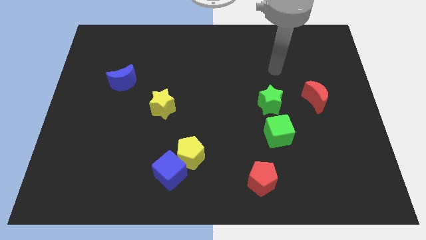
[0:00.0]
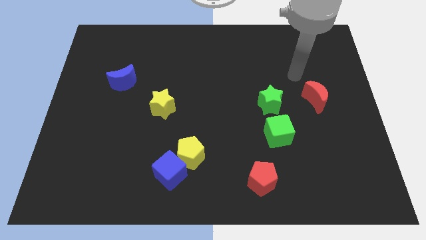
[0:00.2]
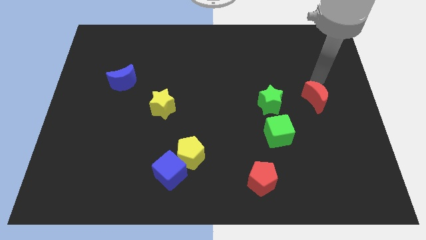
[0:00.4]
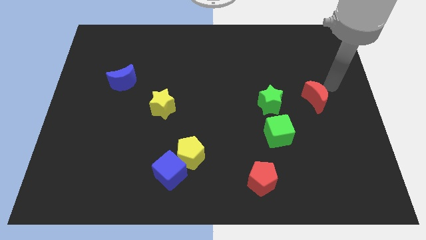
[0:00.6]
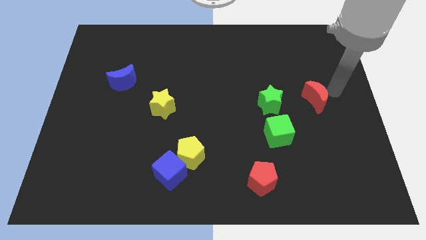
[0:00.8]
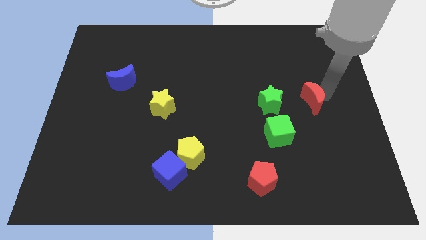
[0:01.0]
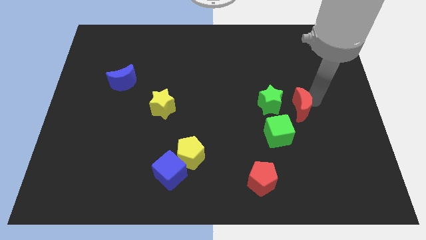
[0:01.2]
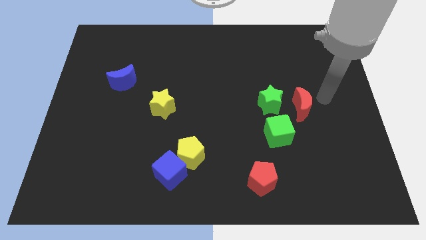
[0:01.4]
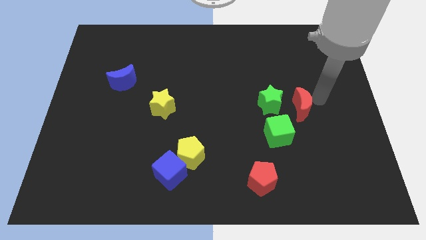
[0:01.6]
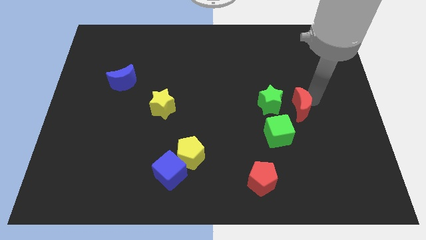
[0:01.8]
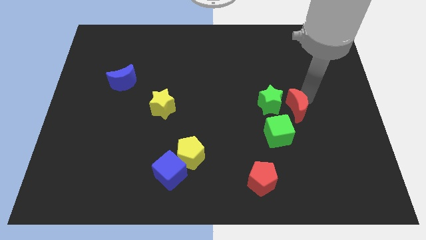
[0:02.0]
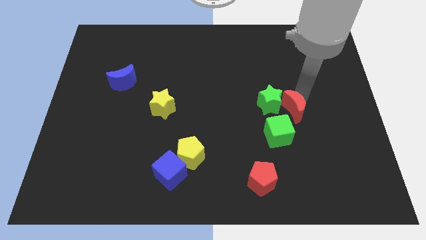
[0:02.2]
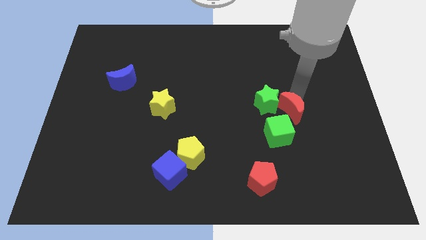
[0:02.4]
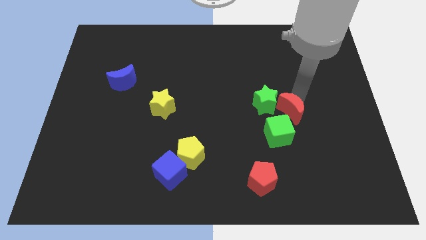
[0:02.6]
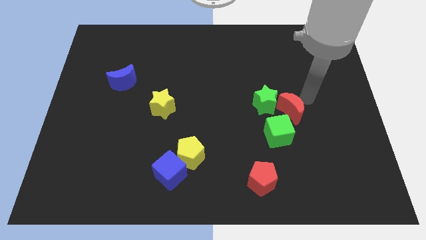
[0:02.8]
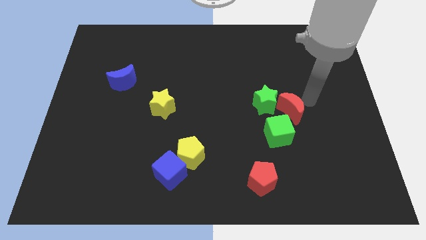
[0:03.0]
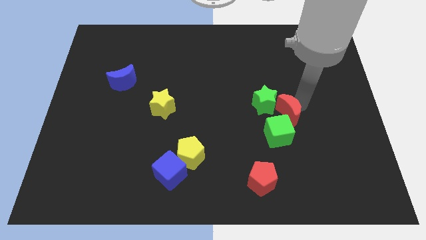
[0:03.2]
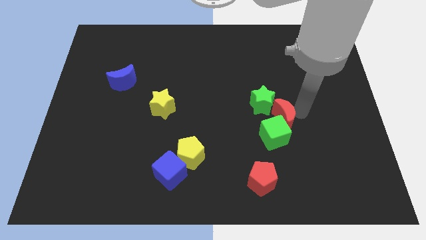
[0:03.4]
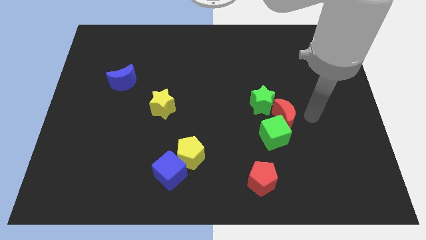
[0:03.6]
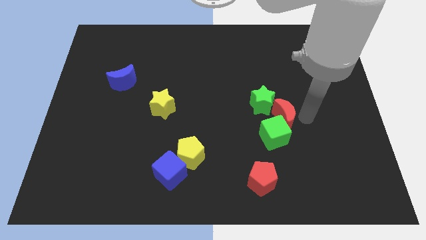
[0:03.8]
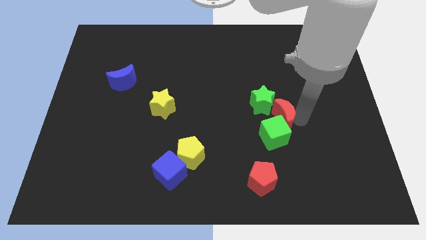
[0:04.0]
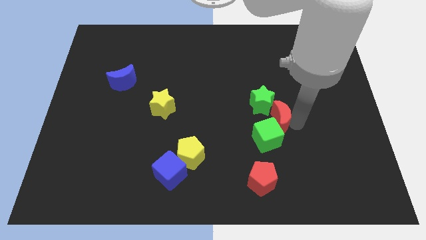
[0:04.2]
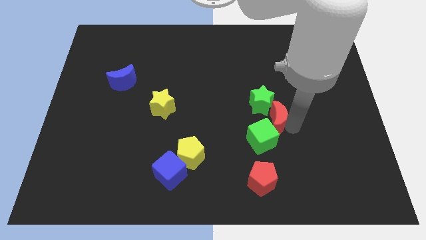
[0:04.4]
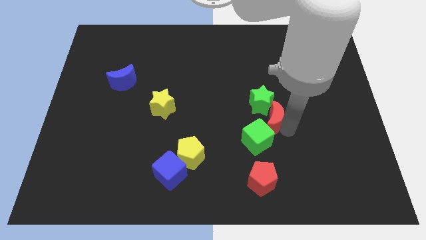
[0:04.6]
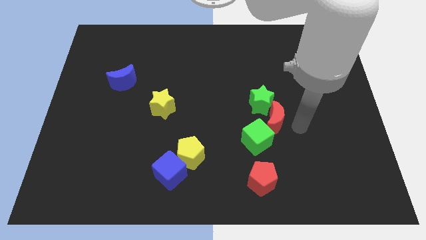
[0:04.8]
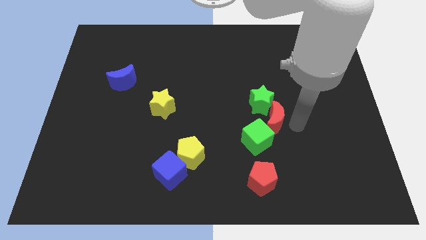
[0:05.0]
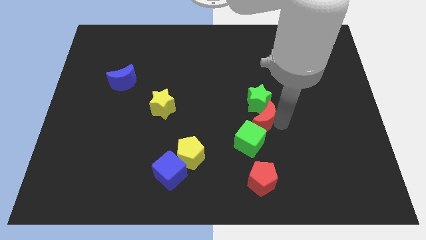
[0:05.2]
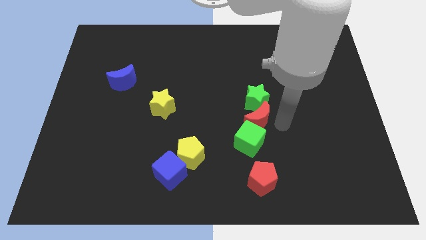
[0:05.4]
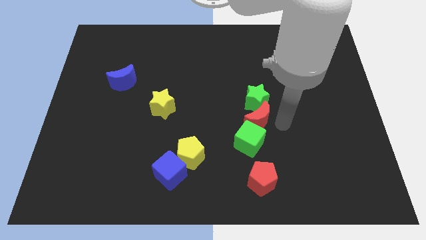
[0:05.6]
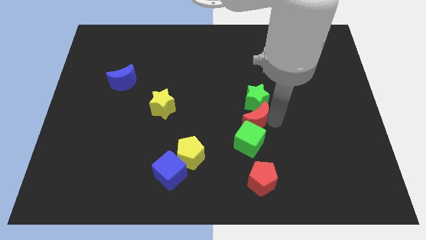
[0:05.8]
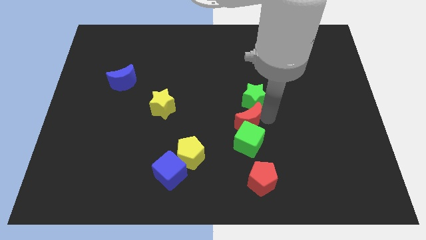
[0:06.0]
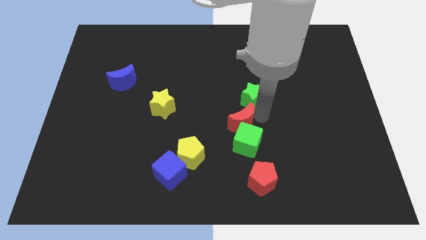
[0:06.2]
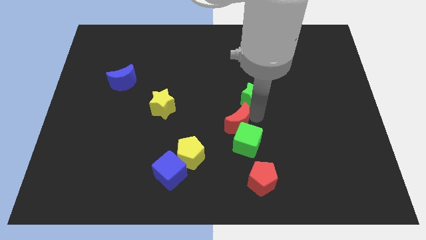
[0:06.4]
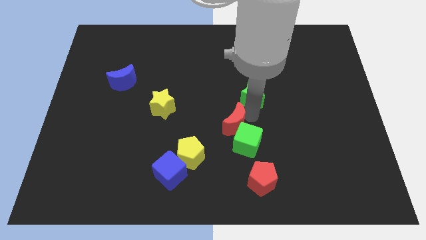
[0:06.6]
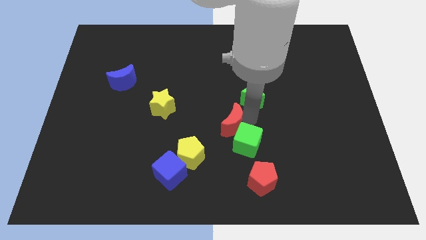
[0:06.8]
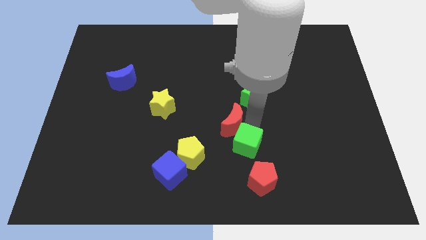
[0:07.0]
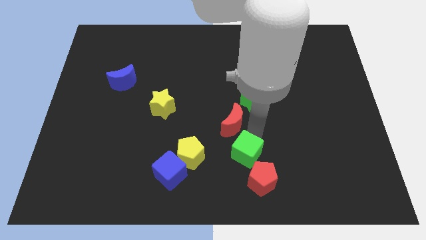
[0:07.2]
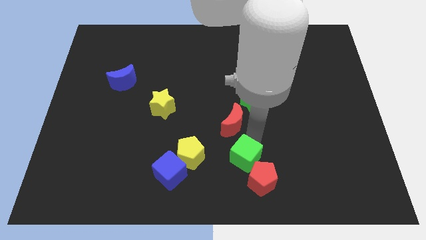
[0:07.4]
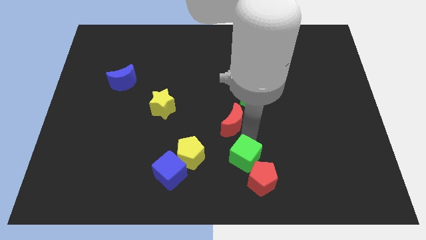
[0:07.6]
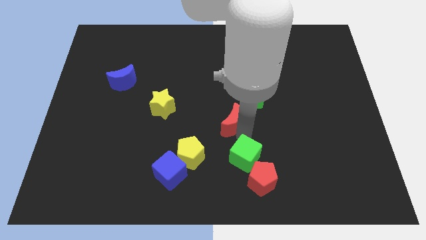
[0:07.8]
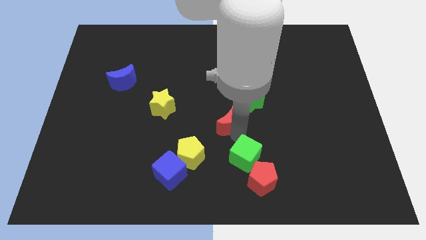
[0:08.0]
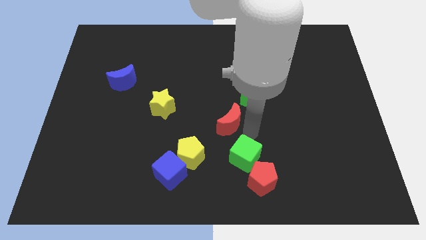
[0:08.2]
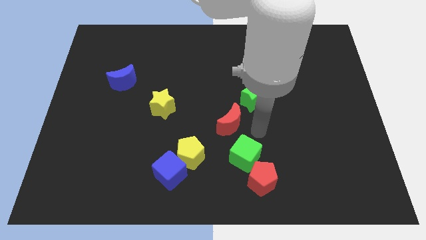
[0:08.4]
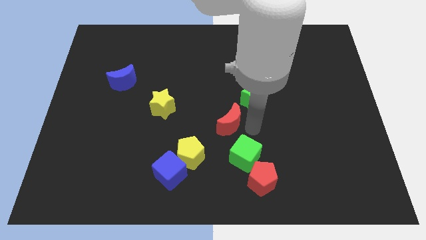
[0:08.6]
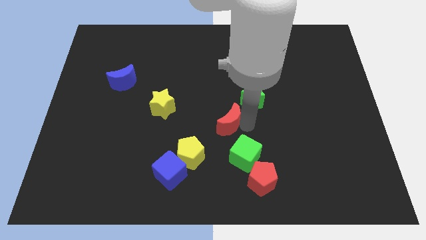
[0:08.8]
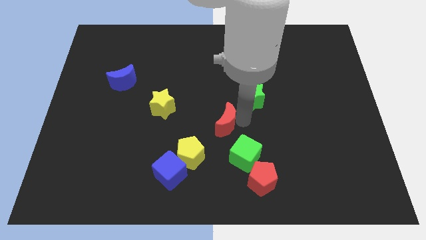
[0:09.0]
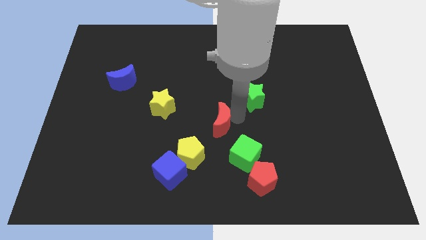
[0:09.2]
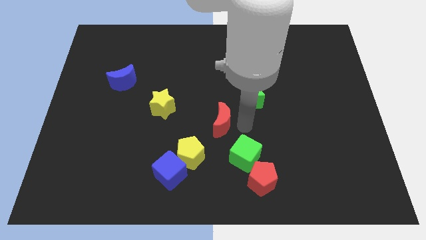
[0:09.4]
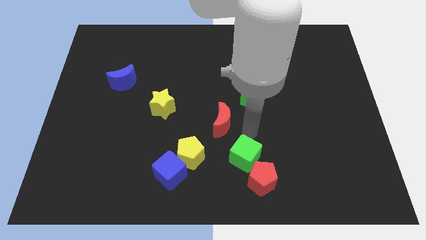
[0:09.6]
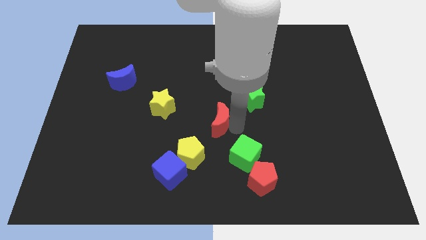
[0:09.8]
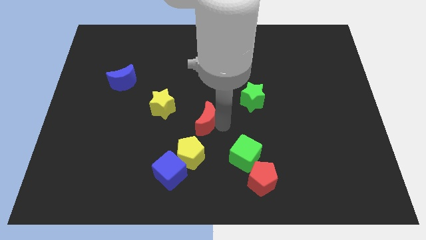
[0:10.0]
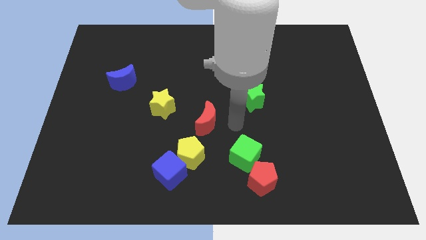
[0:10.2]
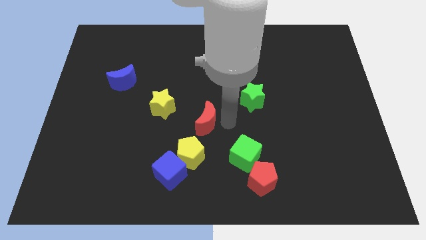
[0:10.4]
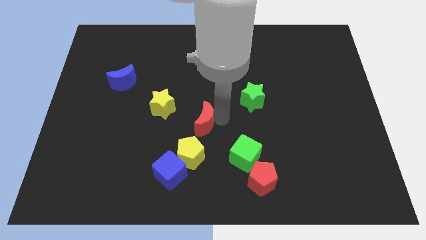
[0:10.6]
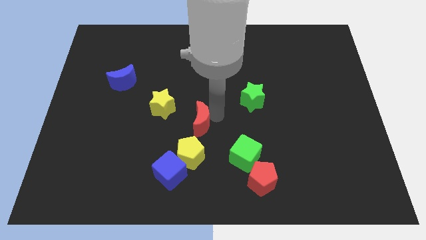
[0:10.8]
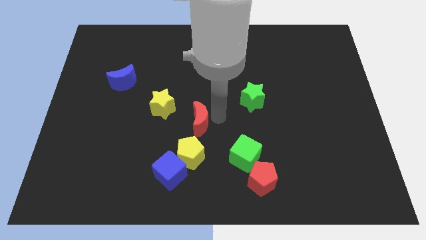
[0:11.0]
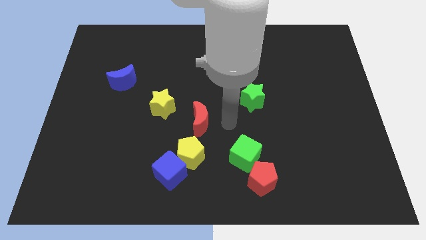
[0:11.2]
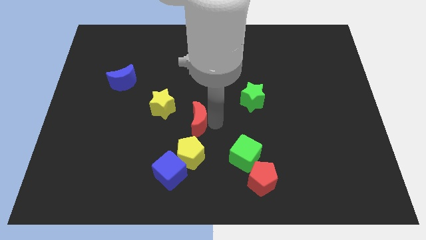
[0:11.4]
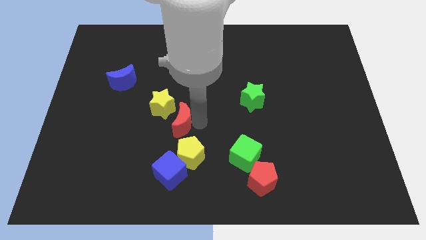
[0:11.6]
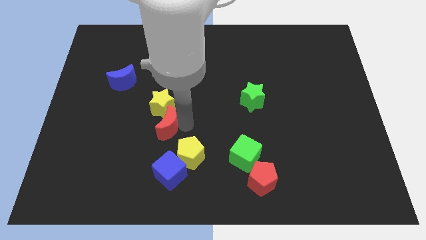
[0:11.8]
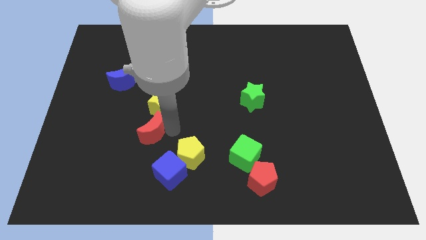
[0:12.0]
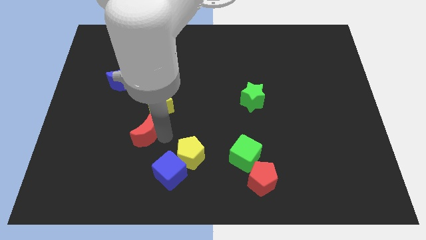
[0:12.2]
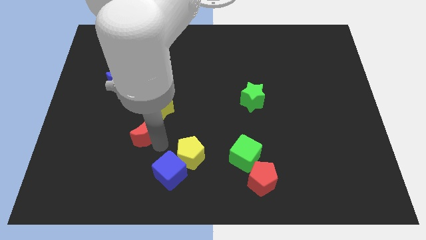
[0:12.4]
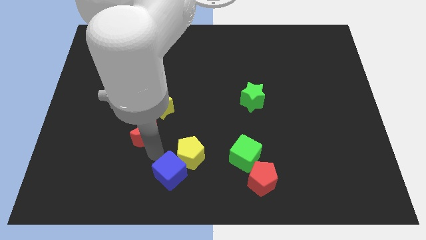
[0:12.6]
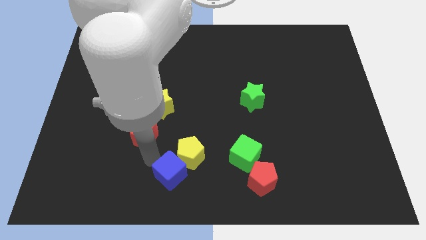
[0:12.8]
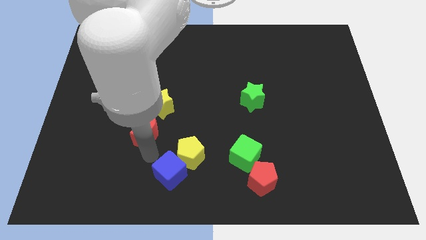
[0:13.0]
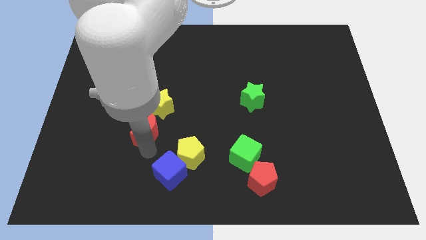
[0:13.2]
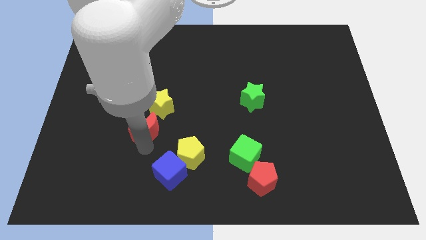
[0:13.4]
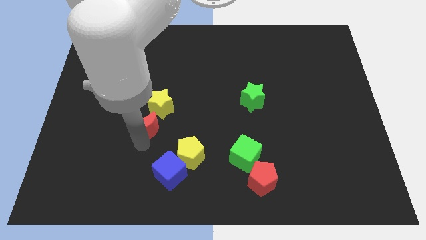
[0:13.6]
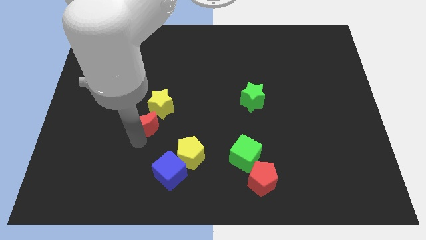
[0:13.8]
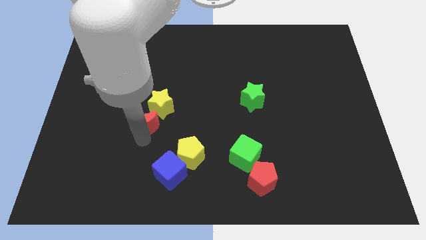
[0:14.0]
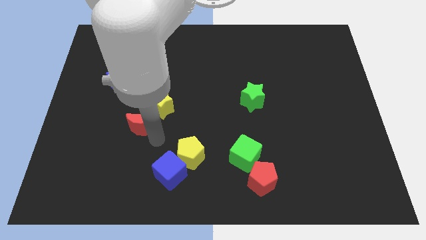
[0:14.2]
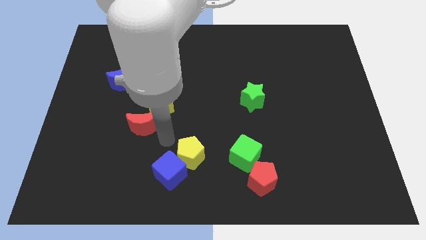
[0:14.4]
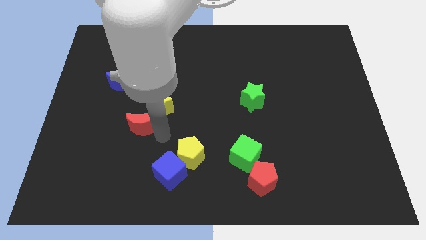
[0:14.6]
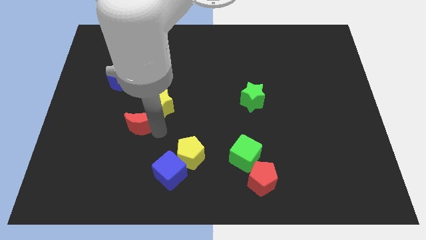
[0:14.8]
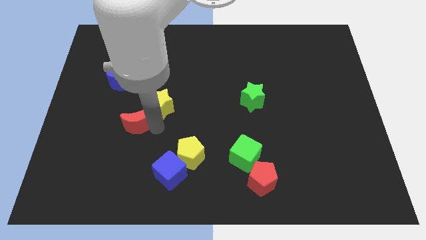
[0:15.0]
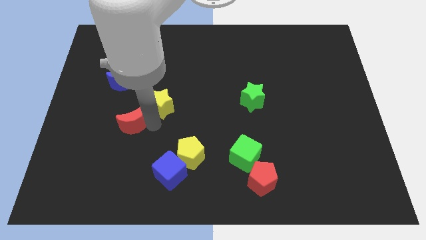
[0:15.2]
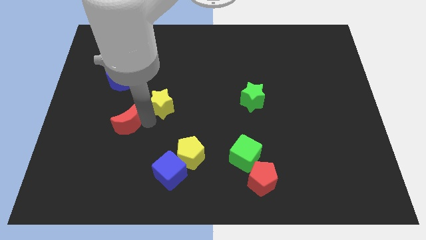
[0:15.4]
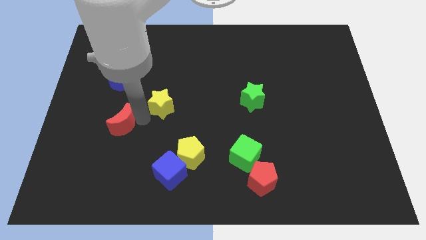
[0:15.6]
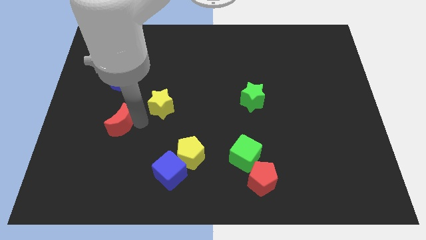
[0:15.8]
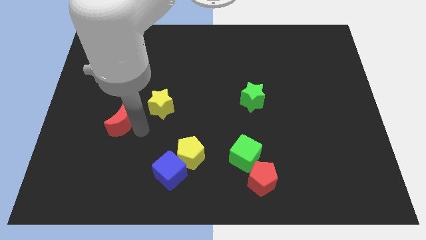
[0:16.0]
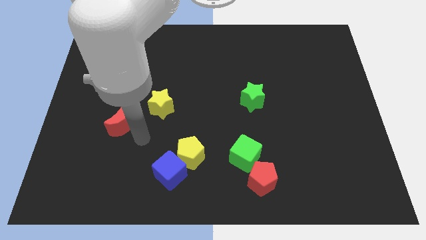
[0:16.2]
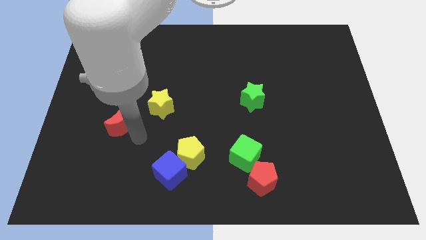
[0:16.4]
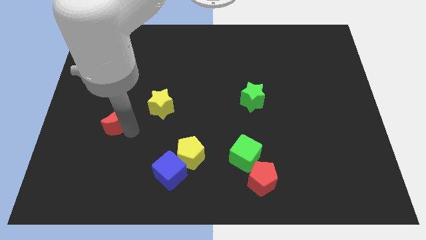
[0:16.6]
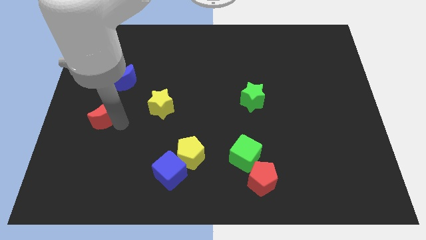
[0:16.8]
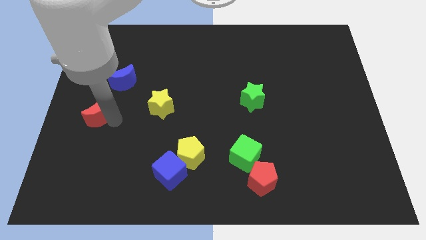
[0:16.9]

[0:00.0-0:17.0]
push the red moon to the left side of the board
